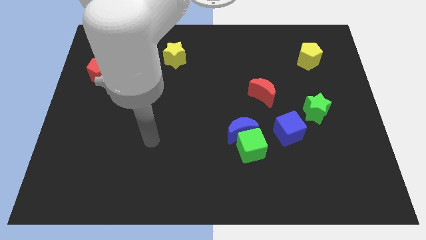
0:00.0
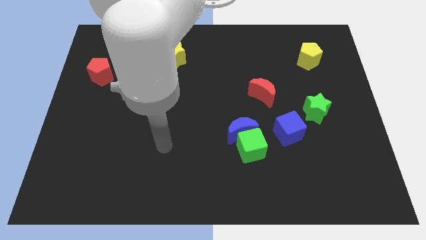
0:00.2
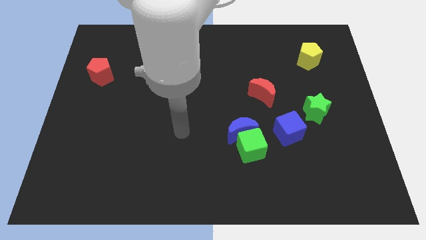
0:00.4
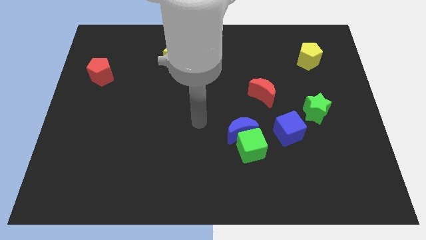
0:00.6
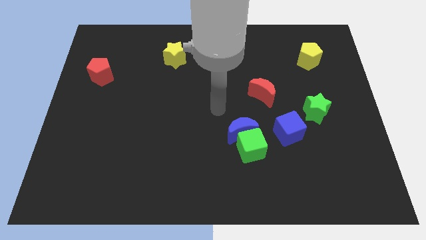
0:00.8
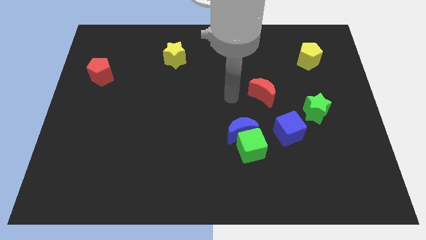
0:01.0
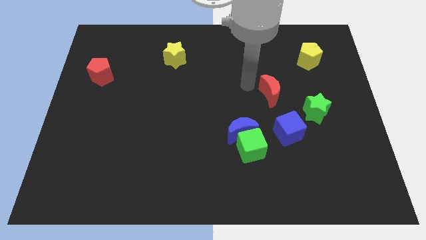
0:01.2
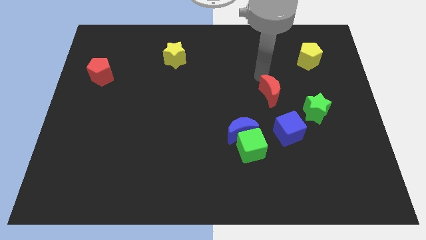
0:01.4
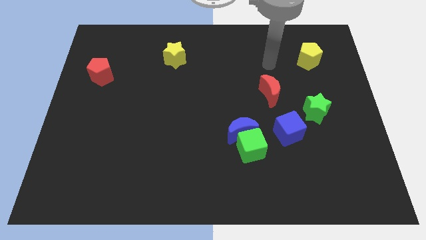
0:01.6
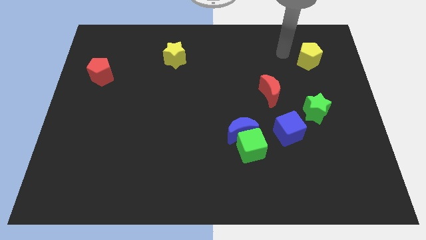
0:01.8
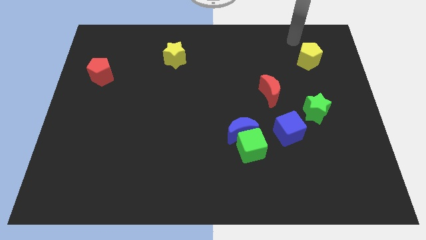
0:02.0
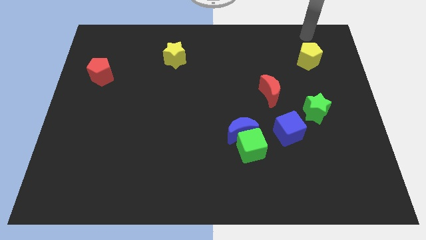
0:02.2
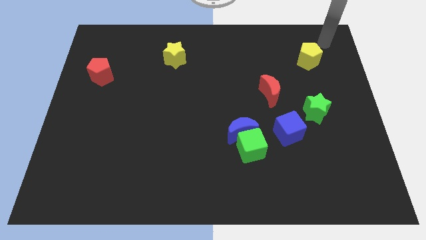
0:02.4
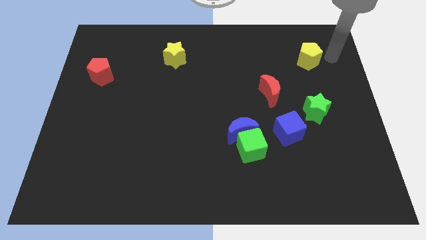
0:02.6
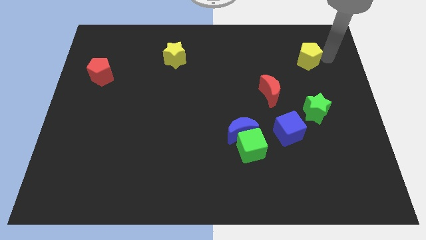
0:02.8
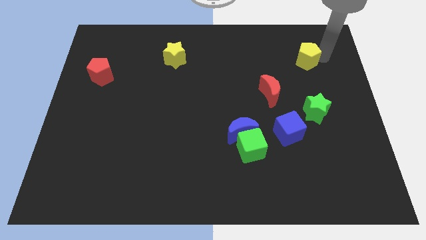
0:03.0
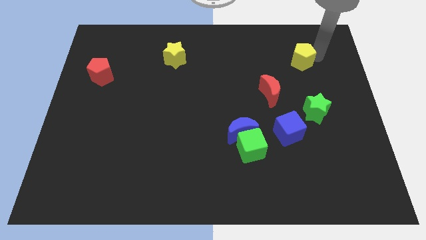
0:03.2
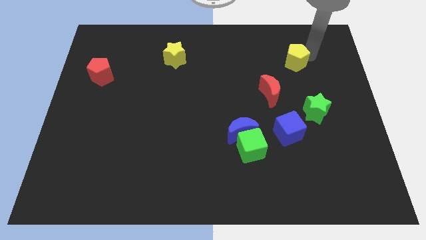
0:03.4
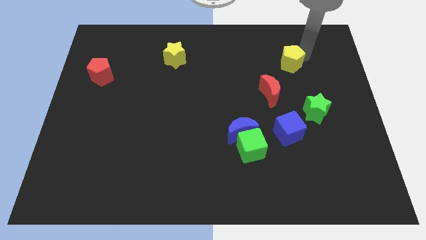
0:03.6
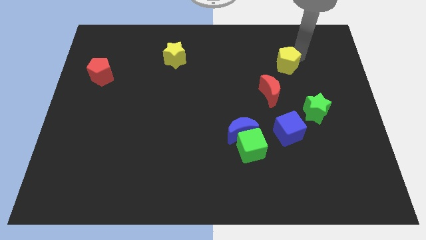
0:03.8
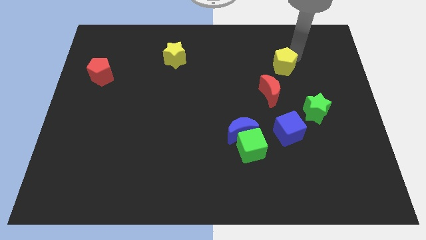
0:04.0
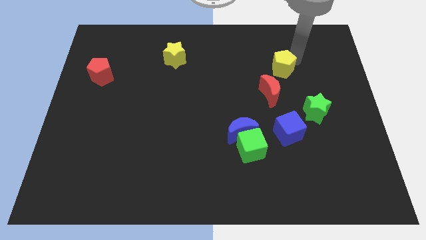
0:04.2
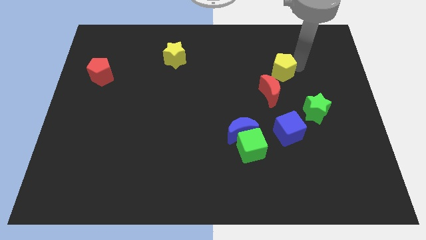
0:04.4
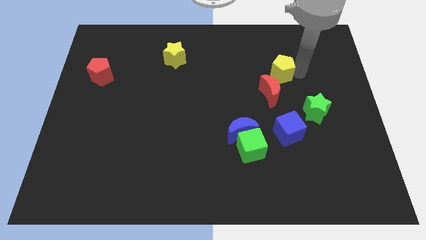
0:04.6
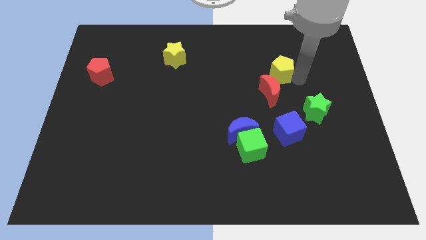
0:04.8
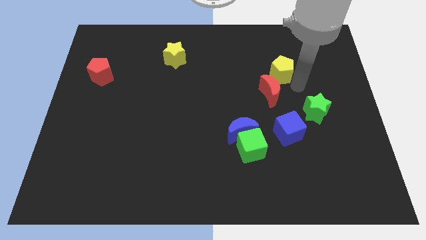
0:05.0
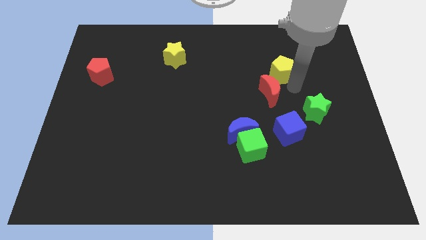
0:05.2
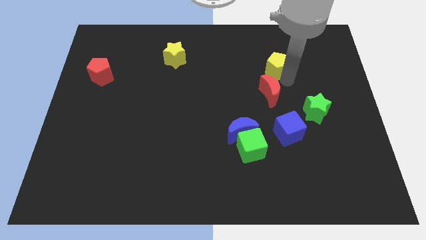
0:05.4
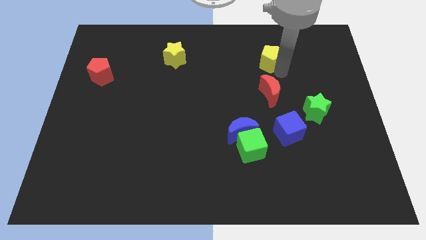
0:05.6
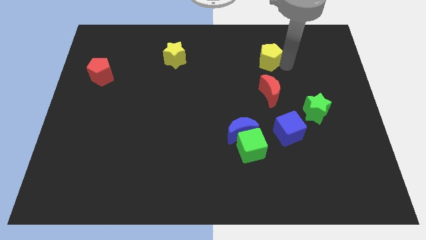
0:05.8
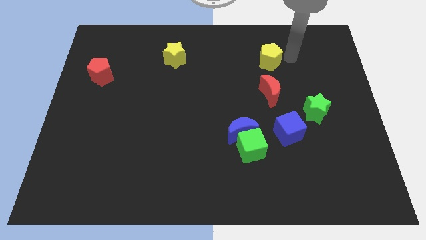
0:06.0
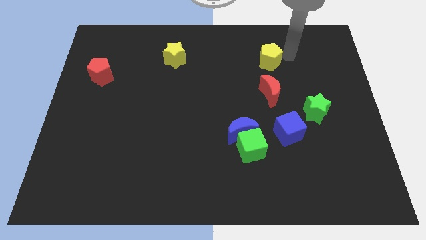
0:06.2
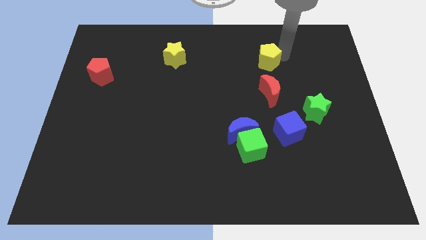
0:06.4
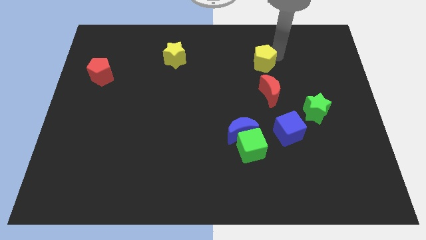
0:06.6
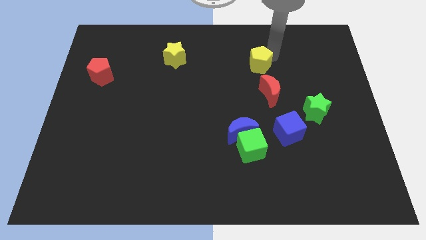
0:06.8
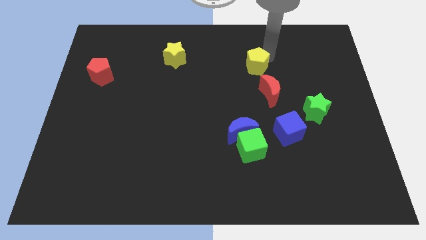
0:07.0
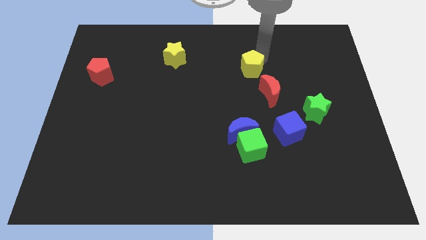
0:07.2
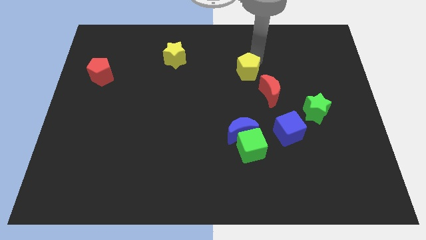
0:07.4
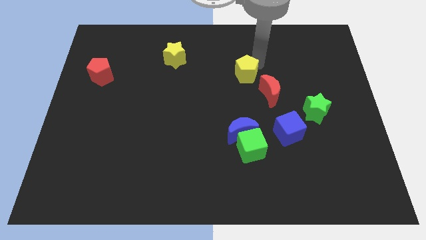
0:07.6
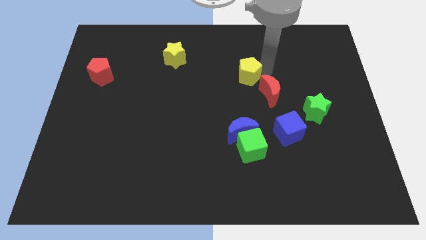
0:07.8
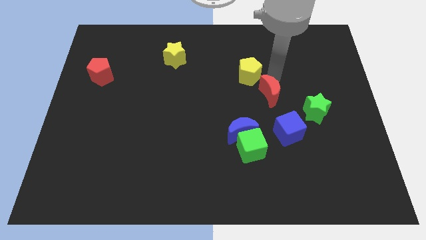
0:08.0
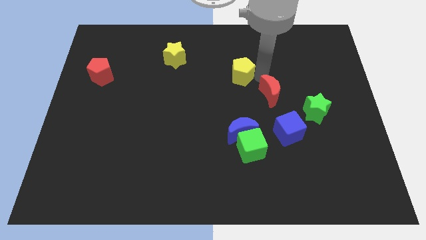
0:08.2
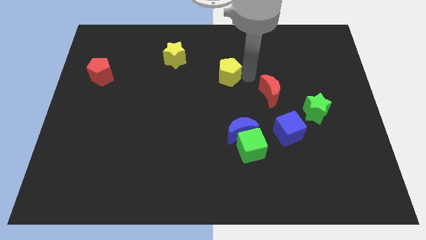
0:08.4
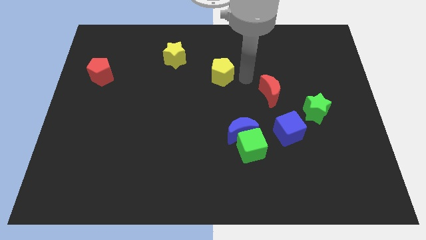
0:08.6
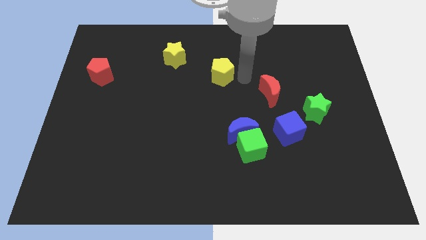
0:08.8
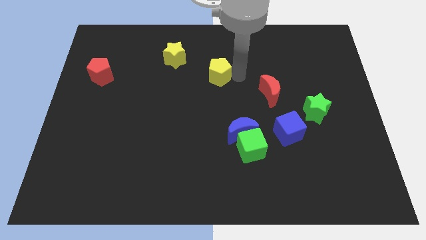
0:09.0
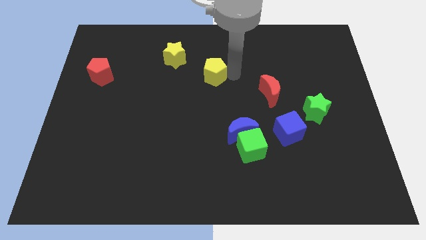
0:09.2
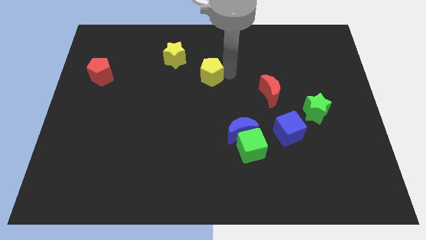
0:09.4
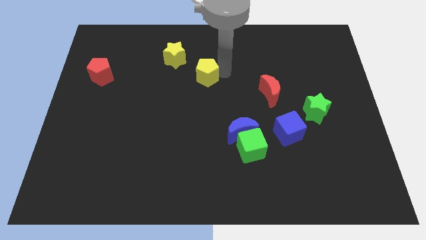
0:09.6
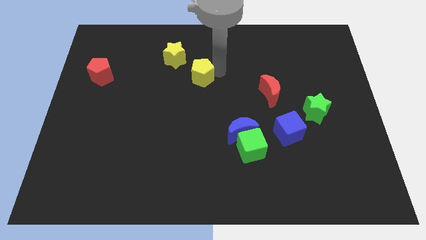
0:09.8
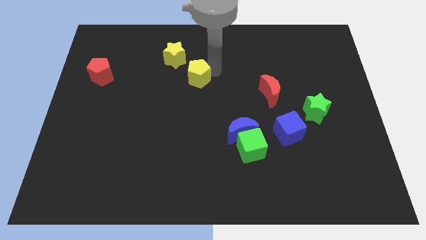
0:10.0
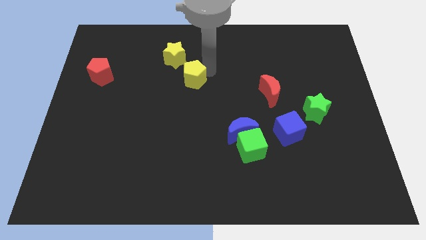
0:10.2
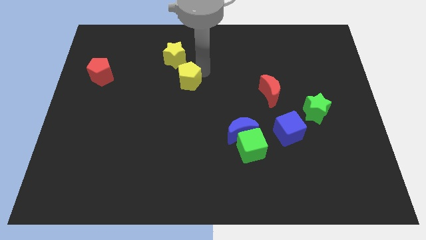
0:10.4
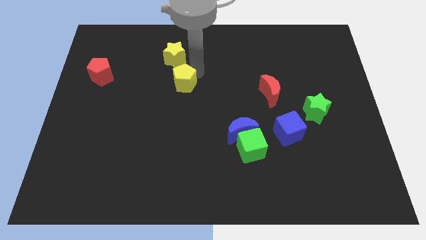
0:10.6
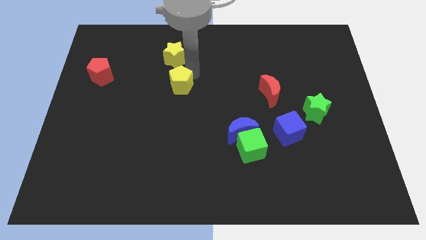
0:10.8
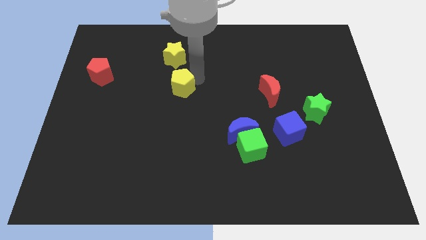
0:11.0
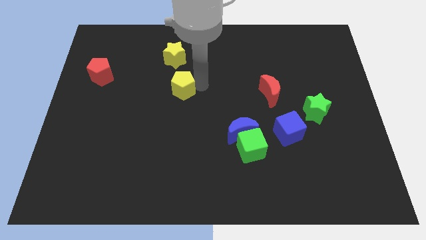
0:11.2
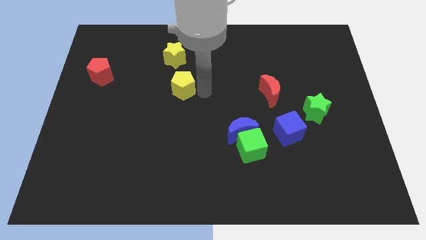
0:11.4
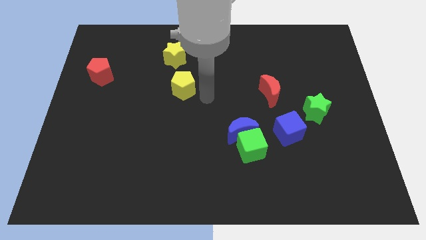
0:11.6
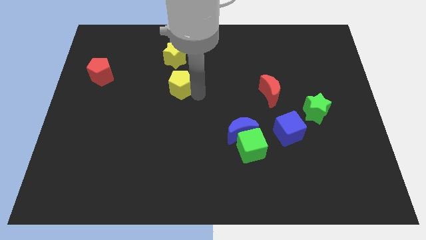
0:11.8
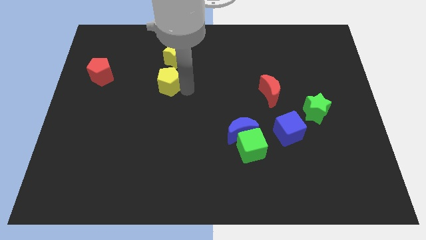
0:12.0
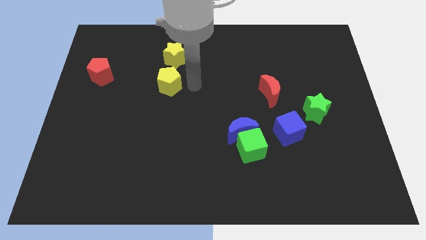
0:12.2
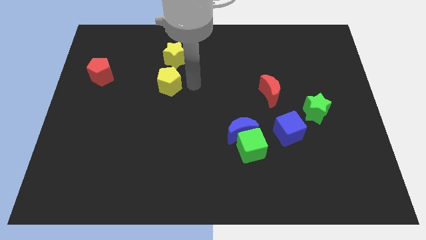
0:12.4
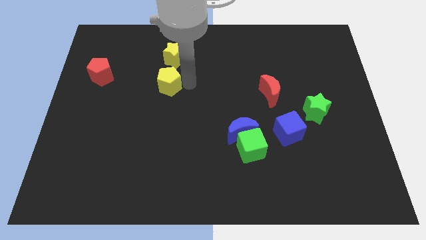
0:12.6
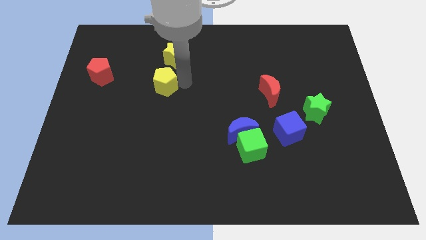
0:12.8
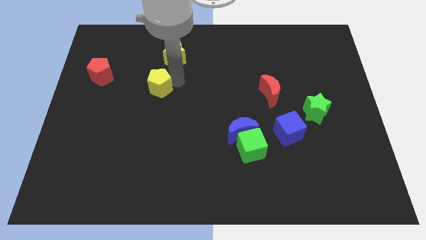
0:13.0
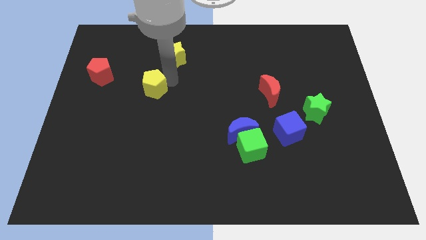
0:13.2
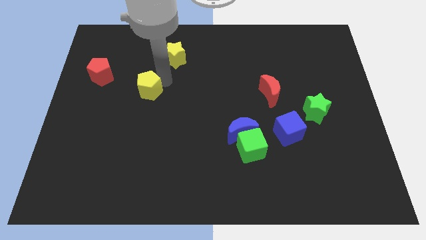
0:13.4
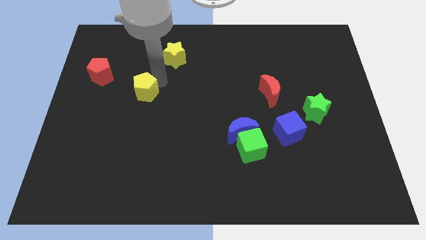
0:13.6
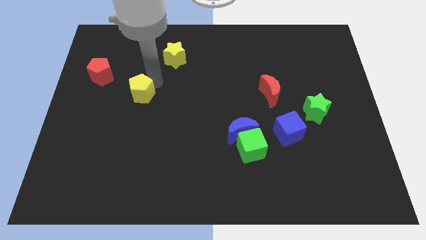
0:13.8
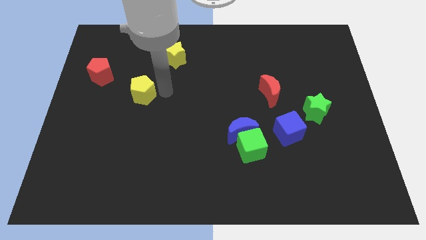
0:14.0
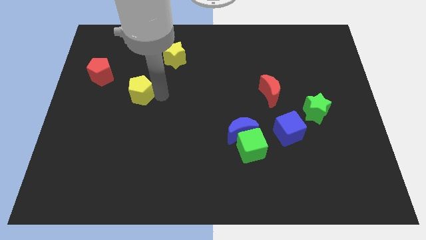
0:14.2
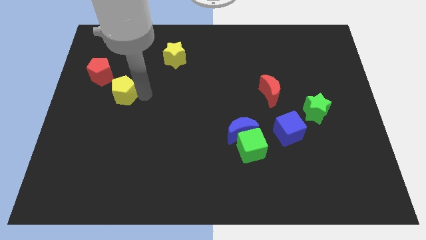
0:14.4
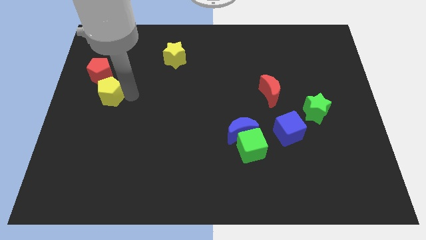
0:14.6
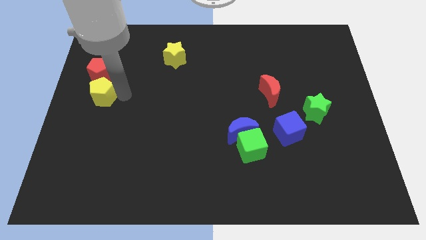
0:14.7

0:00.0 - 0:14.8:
move the yellow pentagon to the center left
